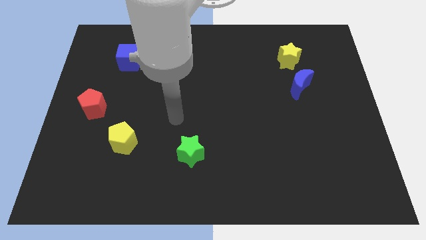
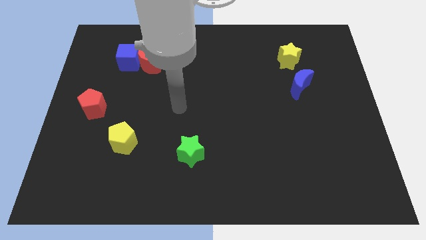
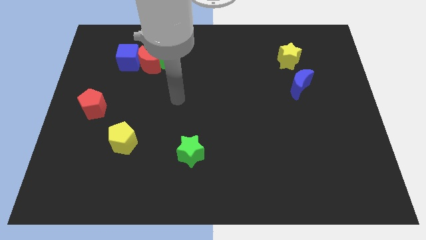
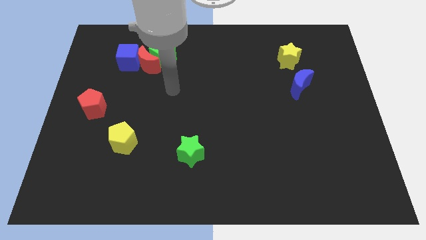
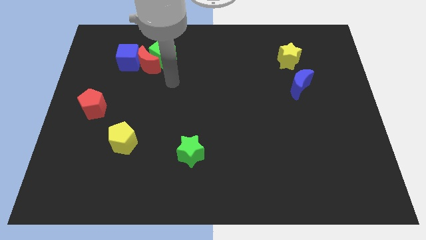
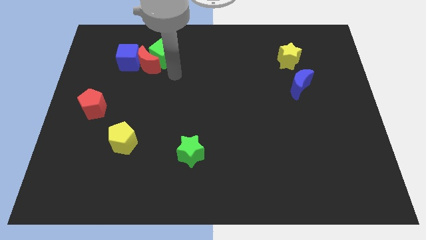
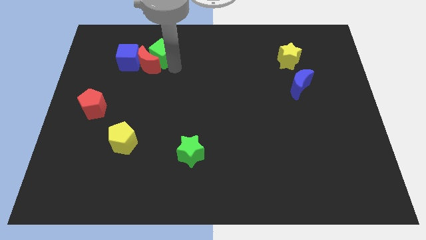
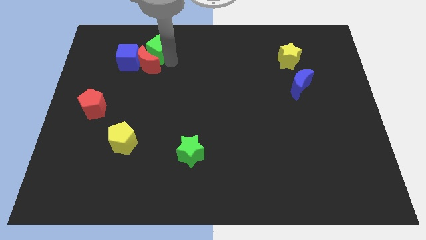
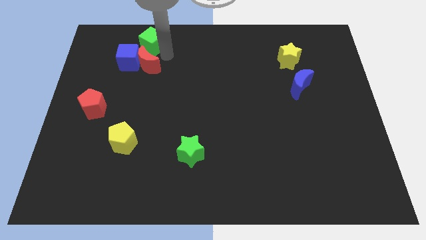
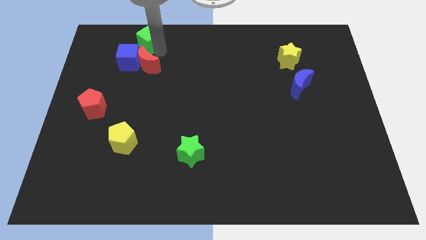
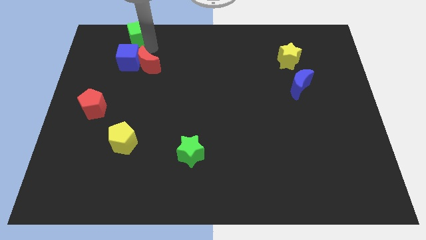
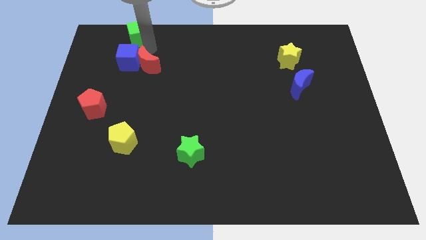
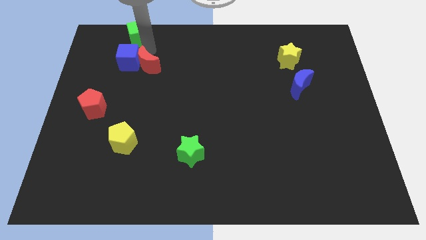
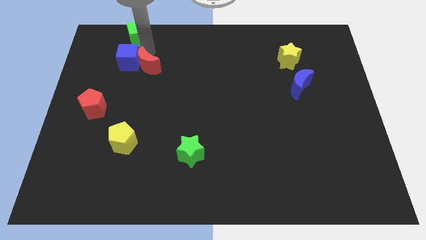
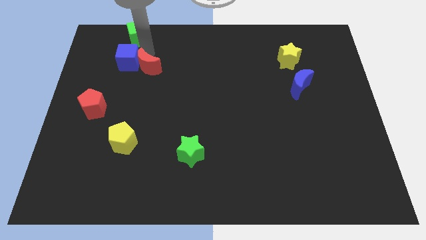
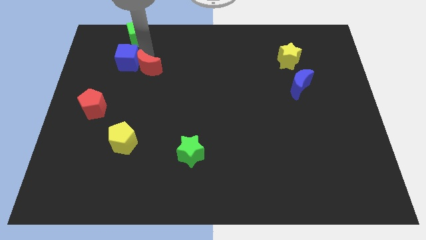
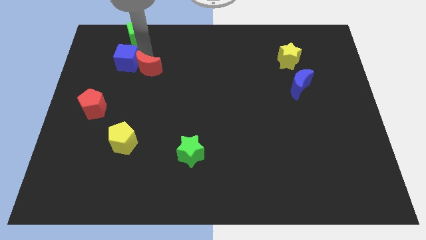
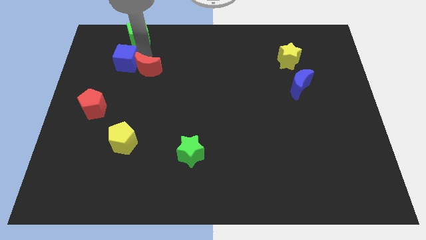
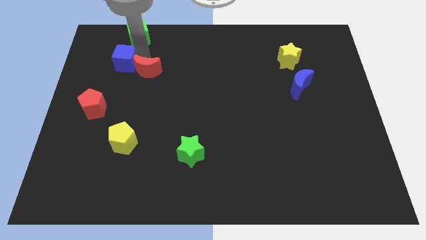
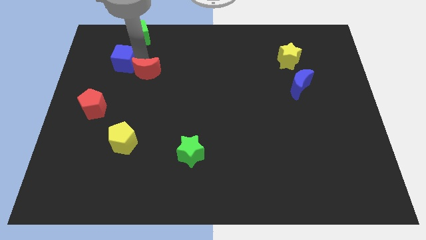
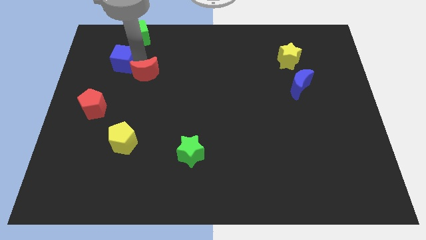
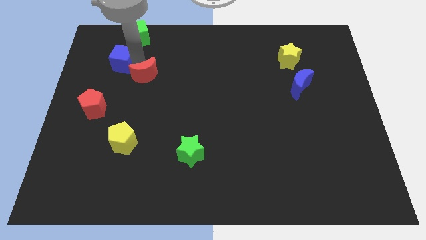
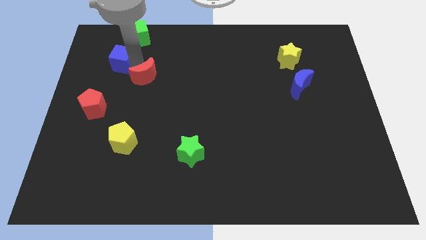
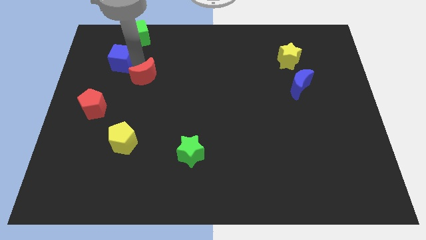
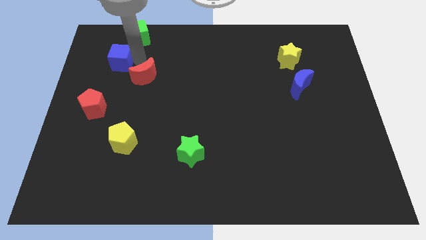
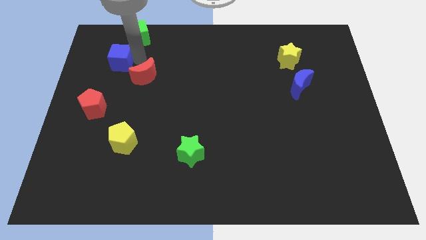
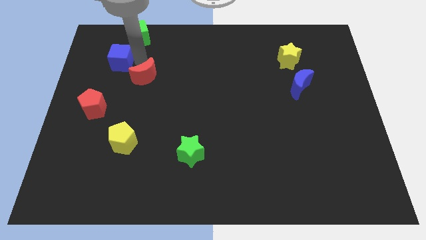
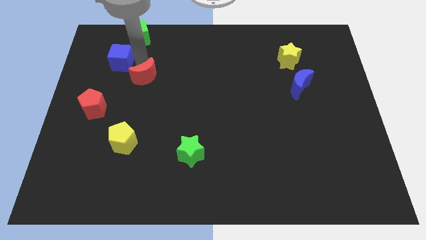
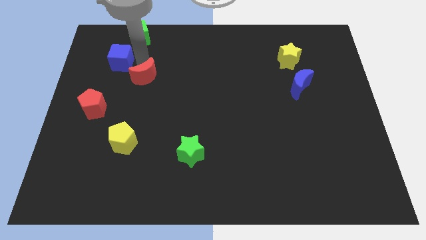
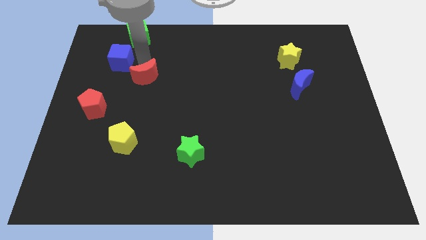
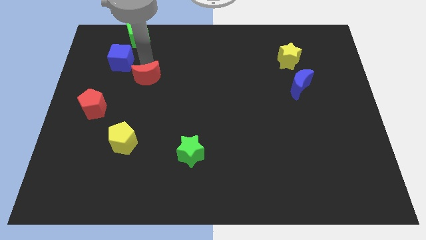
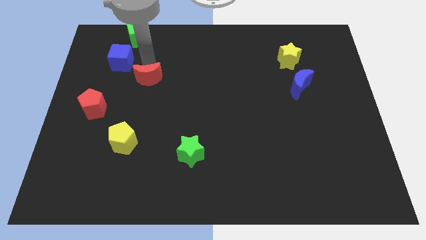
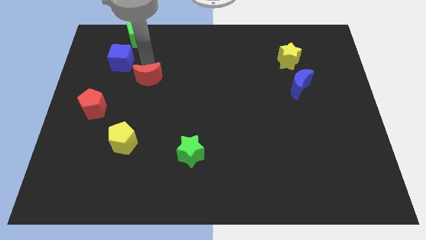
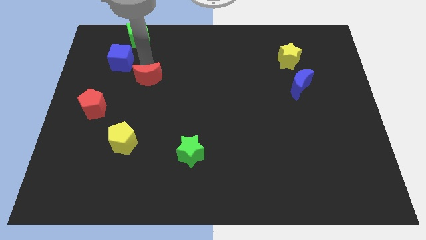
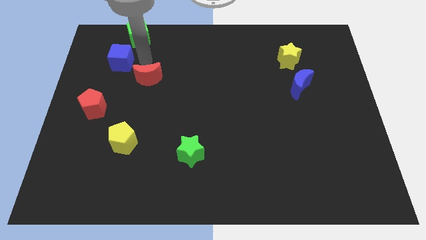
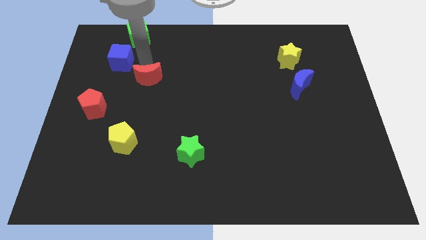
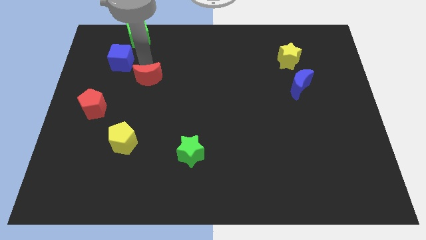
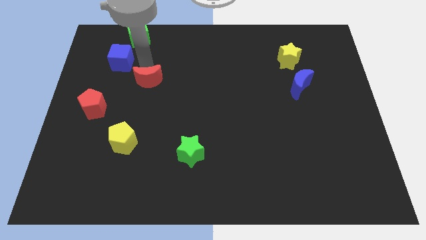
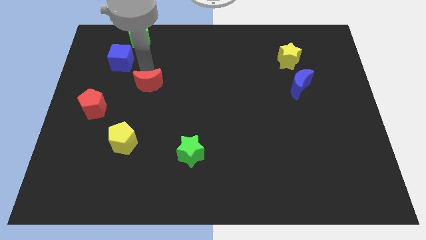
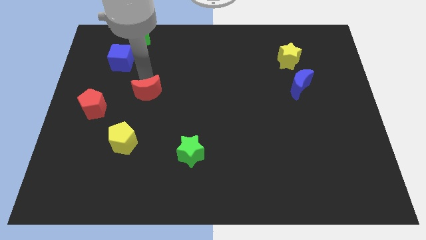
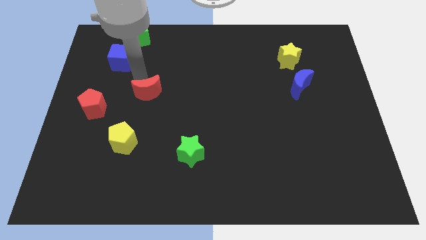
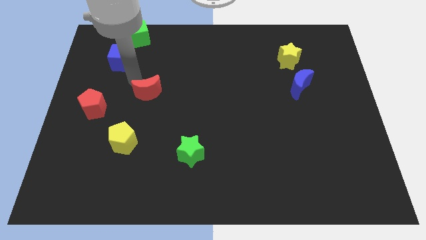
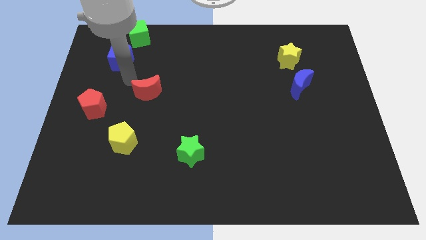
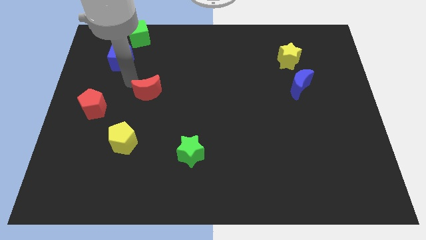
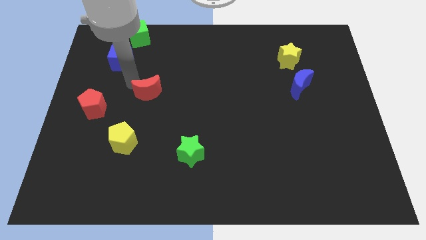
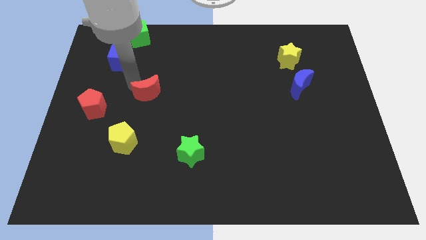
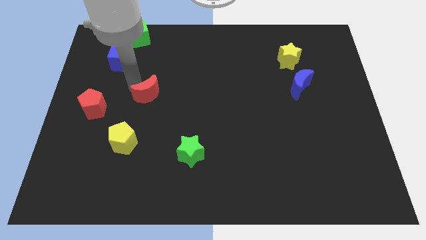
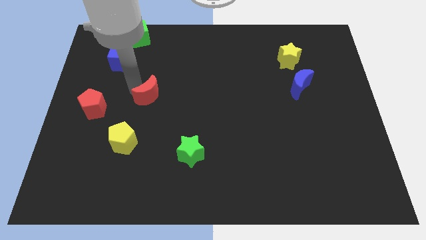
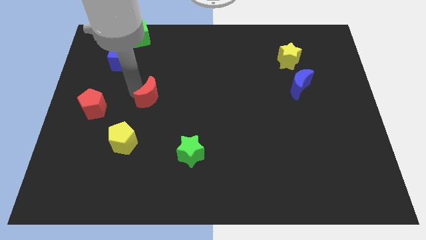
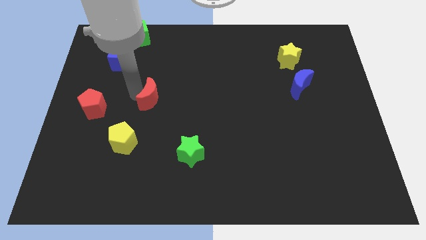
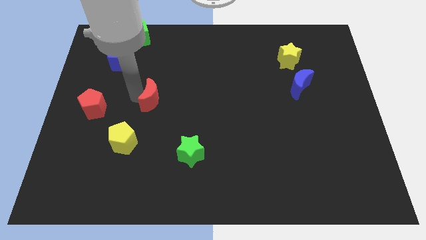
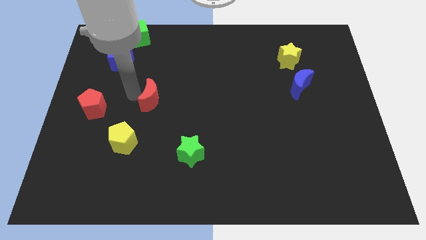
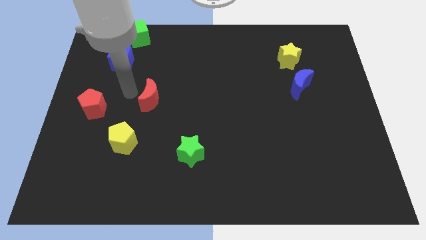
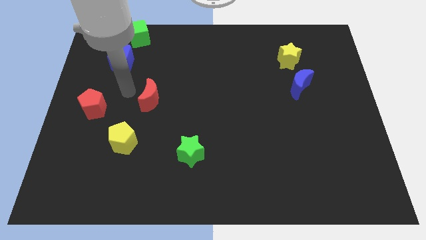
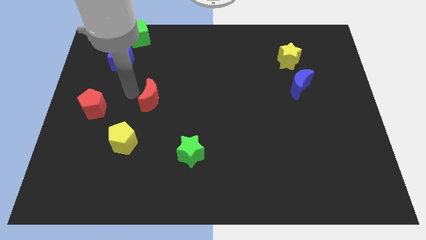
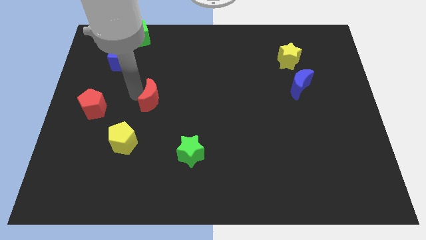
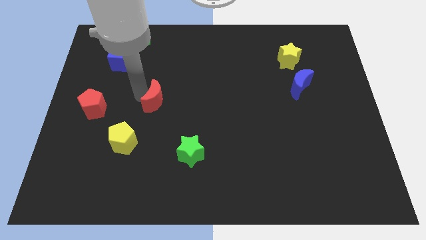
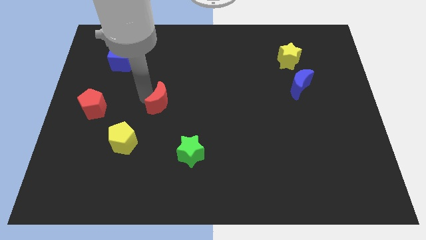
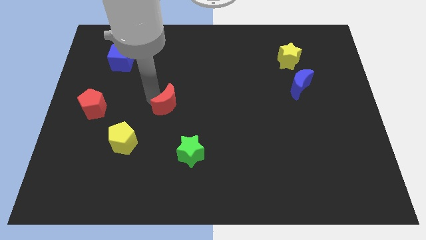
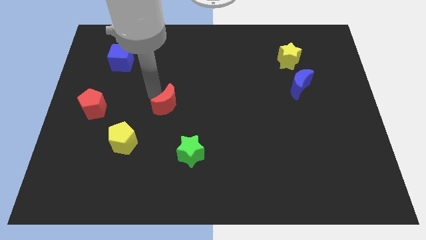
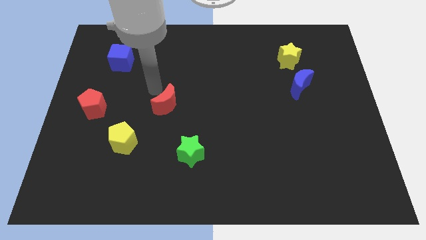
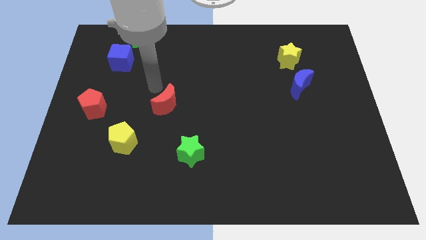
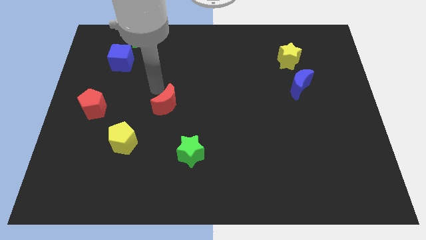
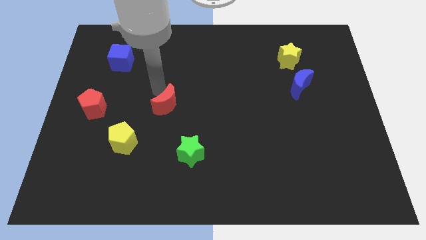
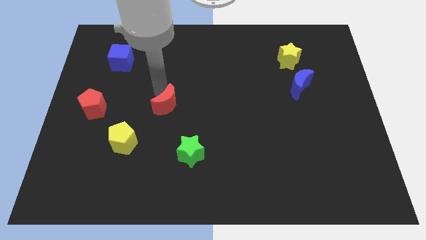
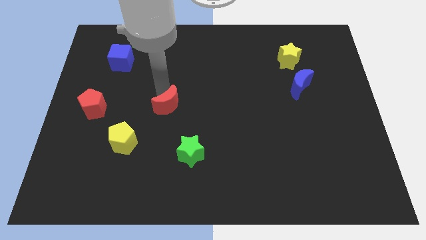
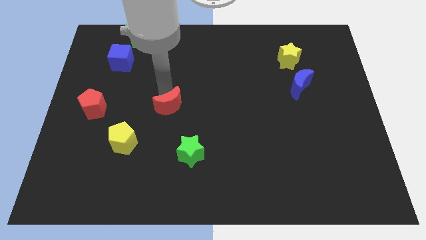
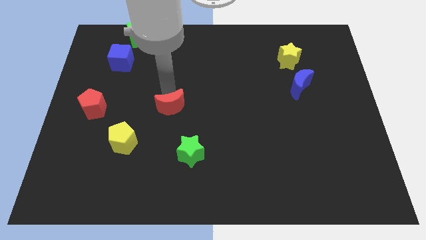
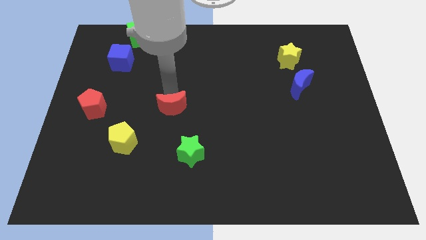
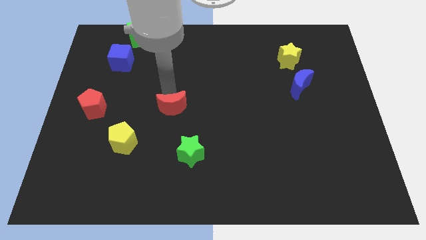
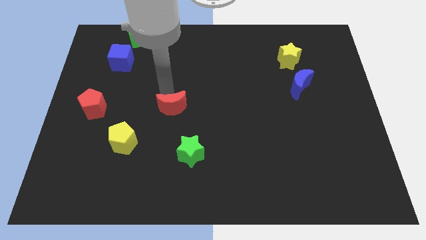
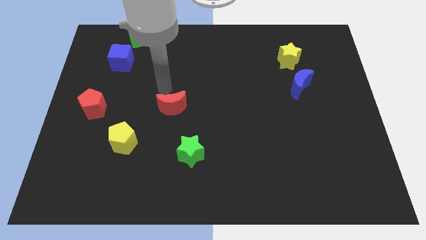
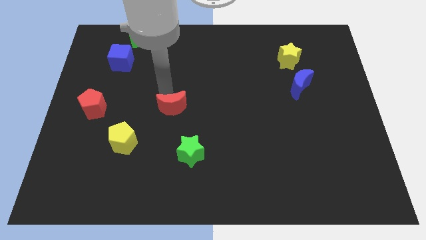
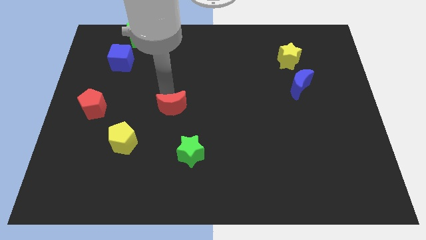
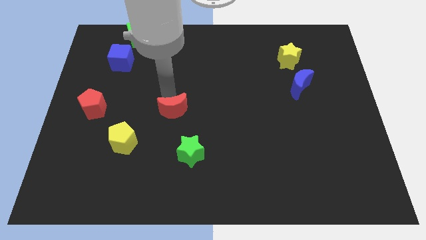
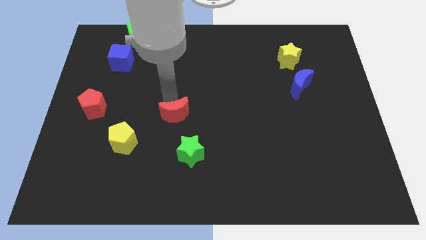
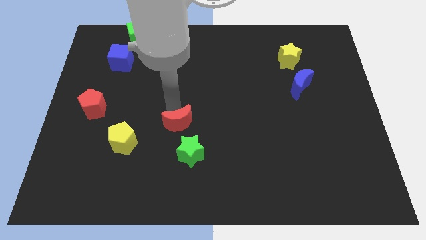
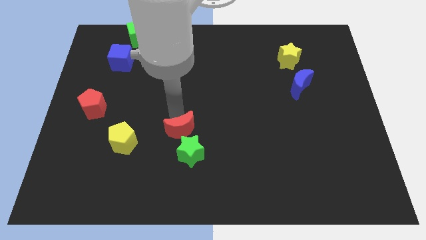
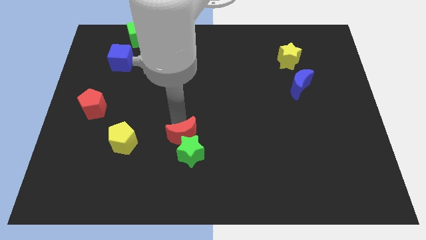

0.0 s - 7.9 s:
slide the red moon to the green star
